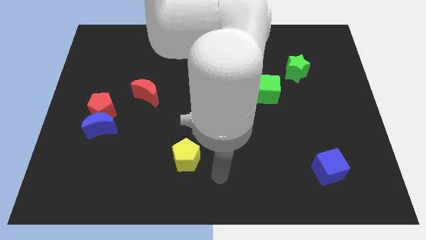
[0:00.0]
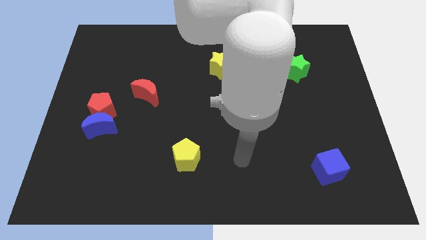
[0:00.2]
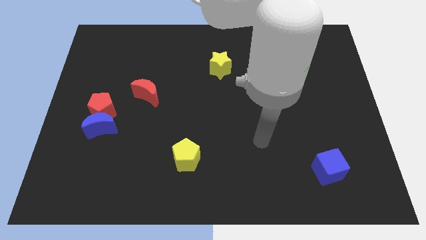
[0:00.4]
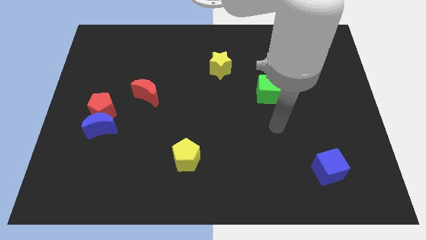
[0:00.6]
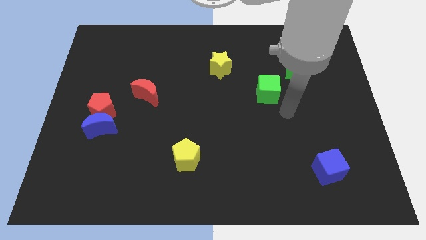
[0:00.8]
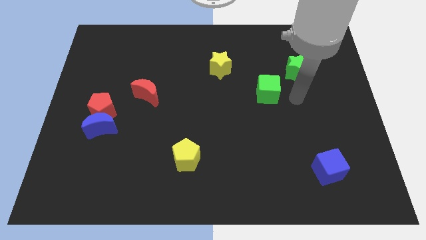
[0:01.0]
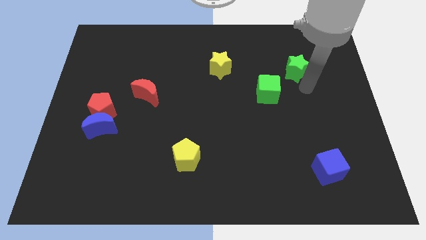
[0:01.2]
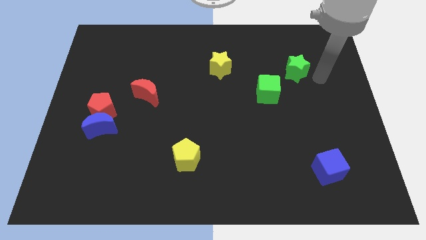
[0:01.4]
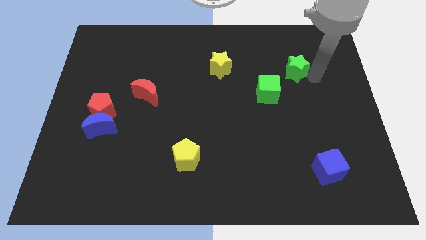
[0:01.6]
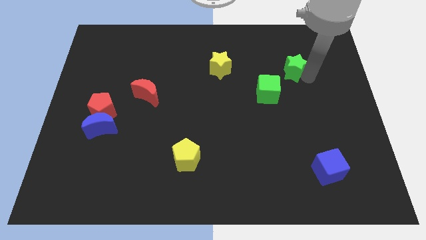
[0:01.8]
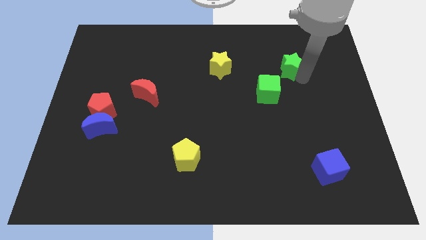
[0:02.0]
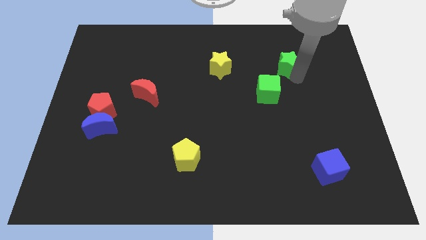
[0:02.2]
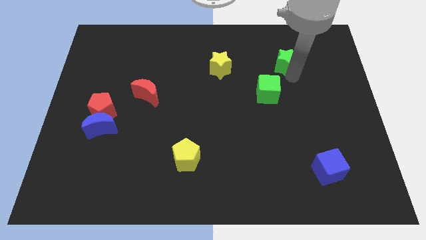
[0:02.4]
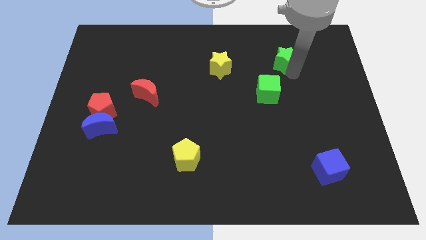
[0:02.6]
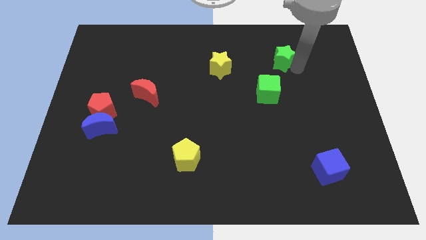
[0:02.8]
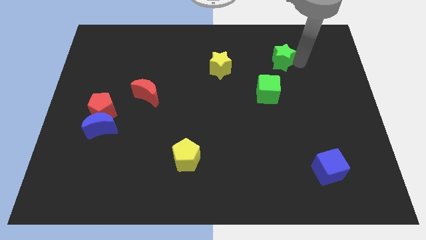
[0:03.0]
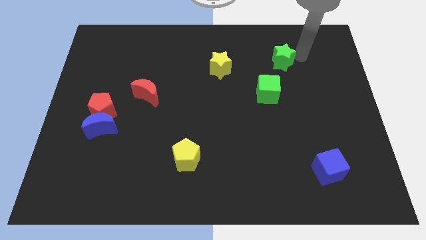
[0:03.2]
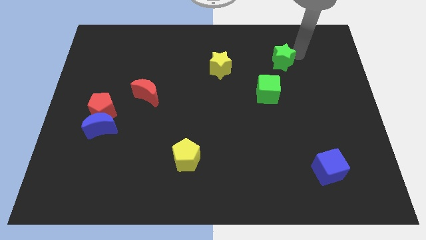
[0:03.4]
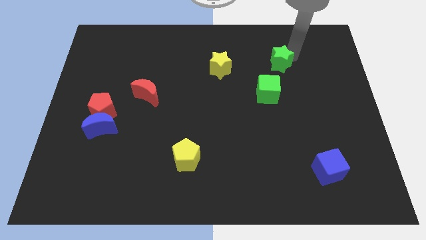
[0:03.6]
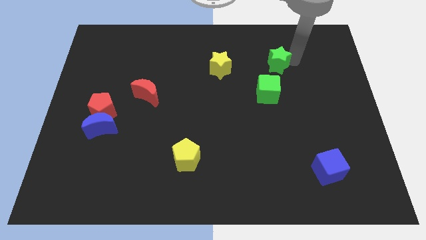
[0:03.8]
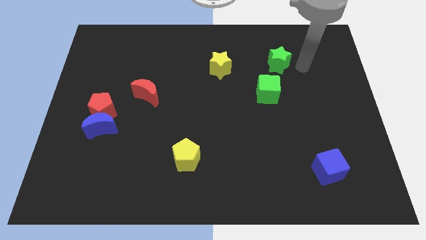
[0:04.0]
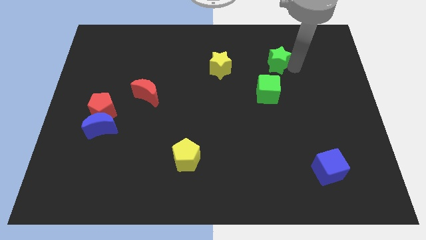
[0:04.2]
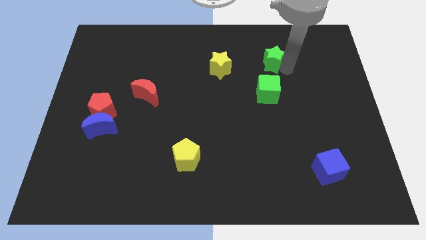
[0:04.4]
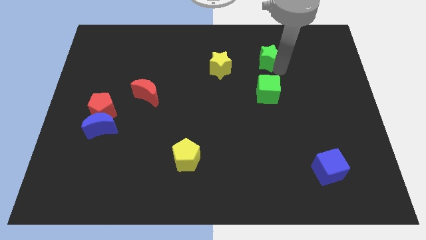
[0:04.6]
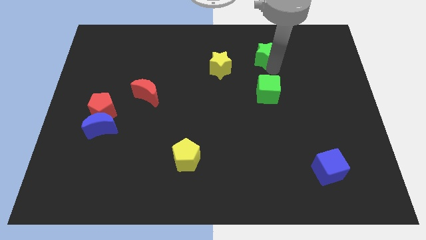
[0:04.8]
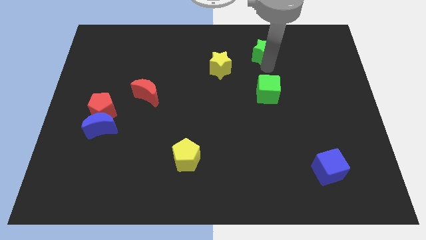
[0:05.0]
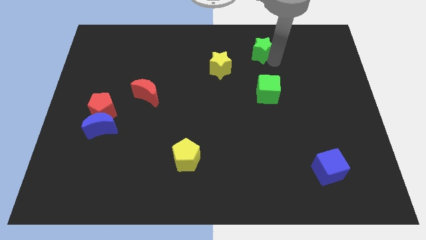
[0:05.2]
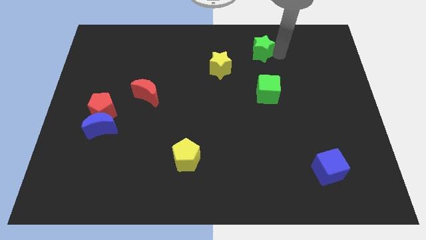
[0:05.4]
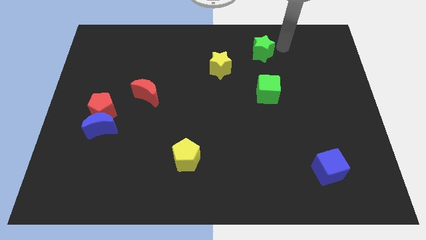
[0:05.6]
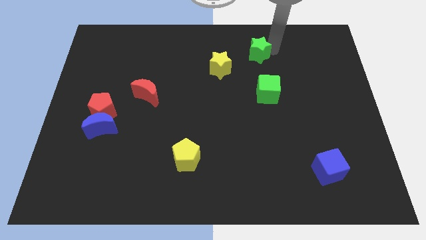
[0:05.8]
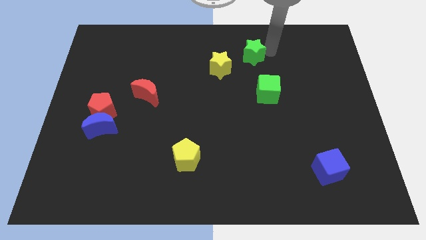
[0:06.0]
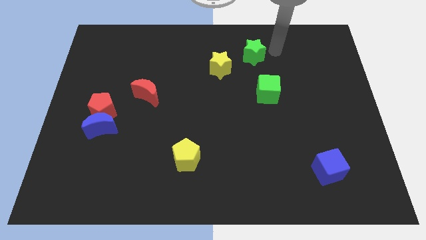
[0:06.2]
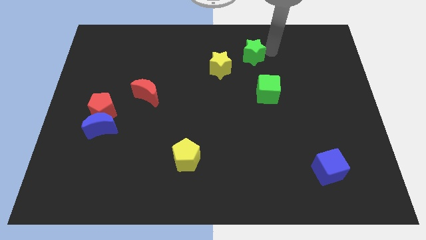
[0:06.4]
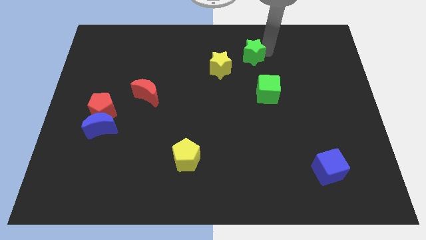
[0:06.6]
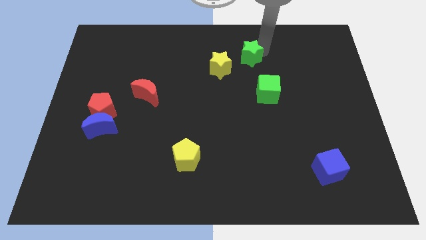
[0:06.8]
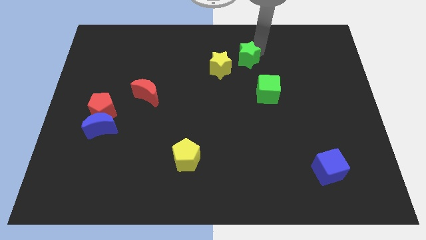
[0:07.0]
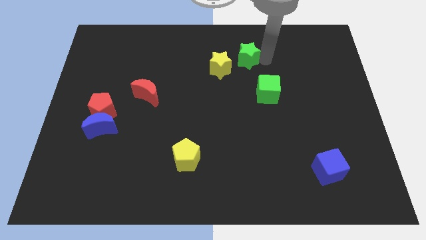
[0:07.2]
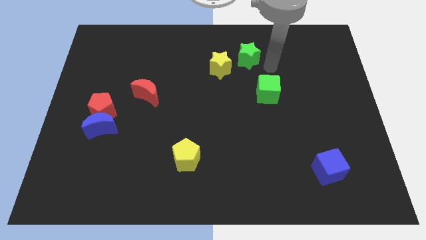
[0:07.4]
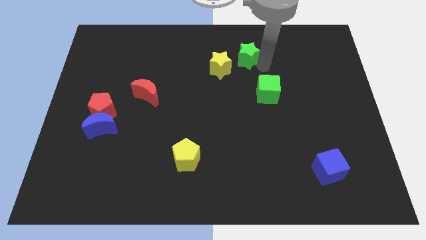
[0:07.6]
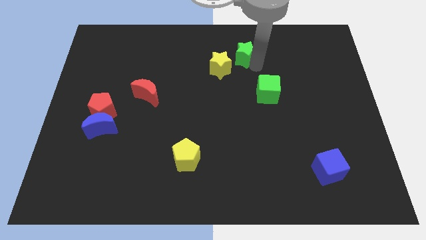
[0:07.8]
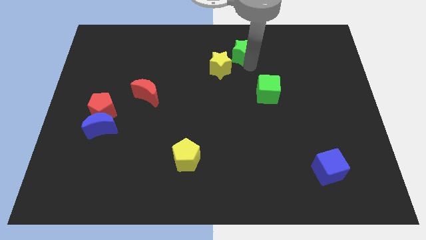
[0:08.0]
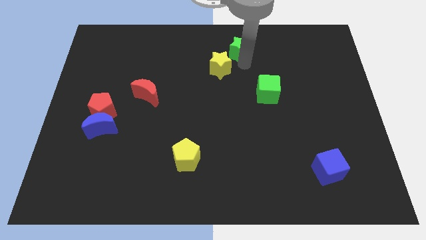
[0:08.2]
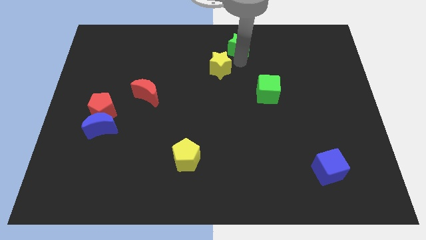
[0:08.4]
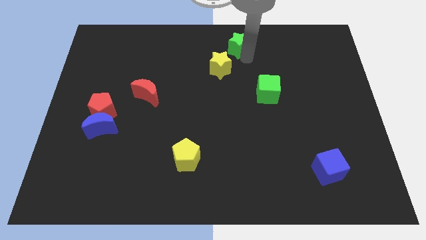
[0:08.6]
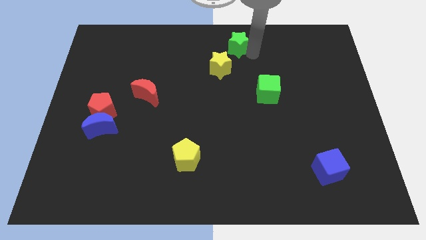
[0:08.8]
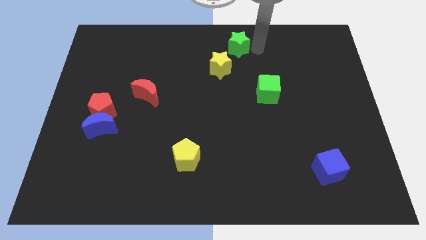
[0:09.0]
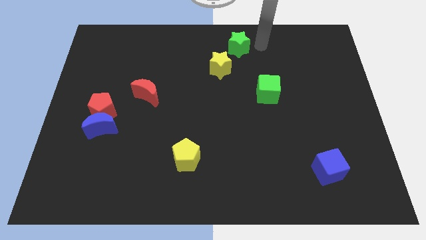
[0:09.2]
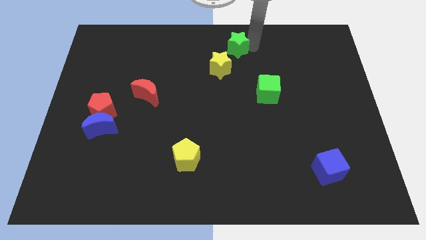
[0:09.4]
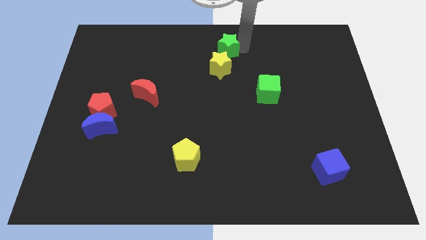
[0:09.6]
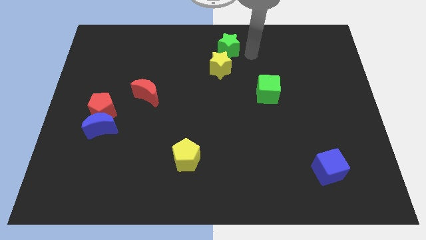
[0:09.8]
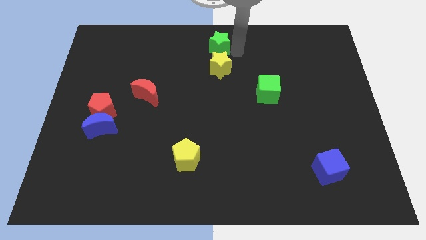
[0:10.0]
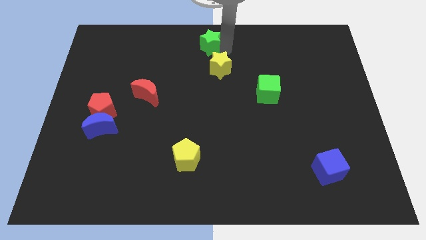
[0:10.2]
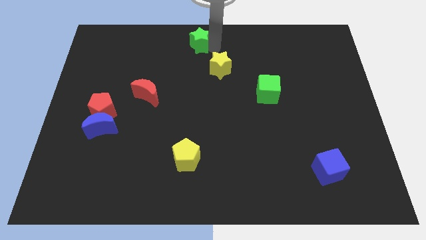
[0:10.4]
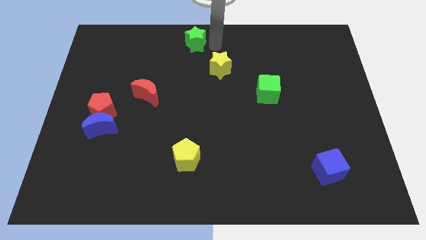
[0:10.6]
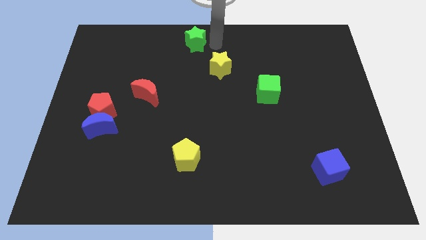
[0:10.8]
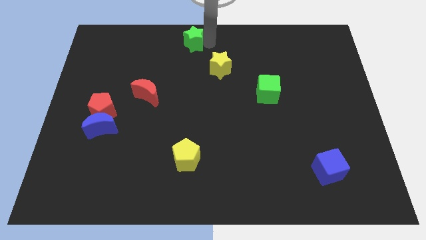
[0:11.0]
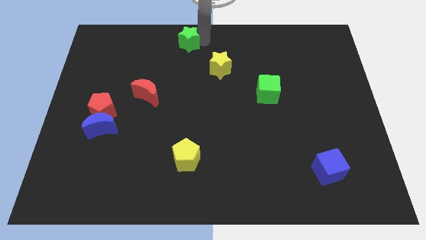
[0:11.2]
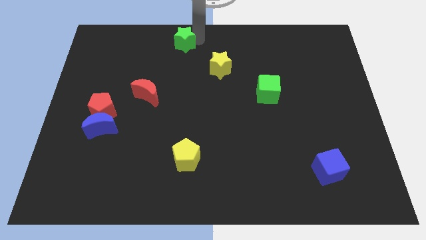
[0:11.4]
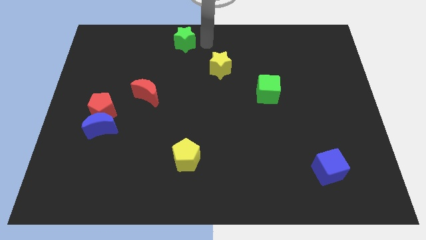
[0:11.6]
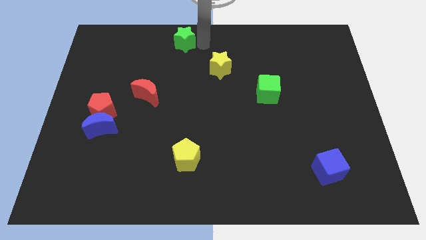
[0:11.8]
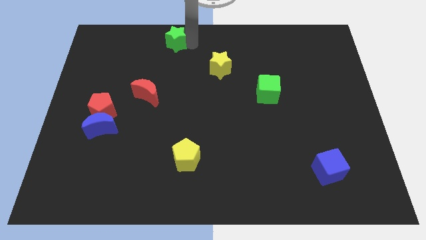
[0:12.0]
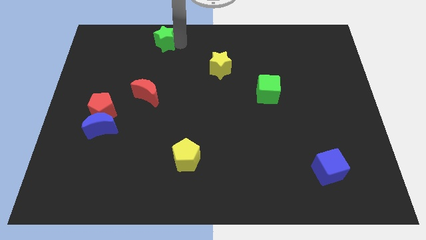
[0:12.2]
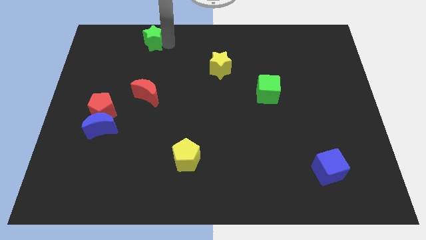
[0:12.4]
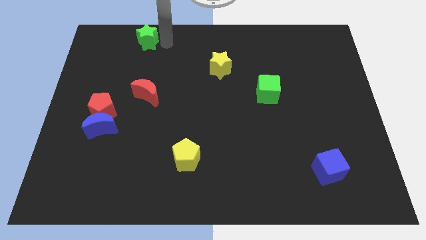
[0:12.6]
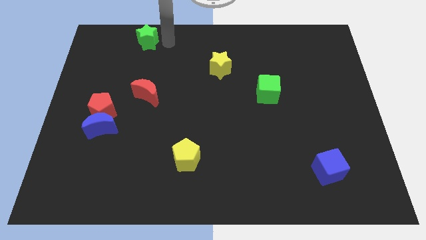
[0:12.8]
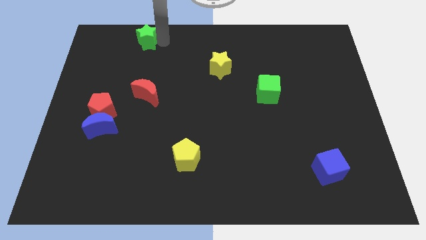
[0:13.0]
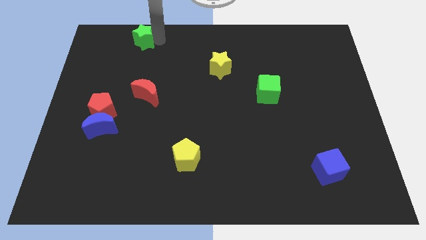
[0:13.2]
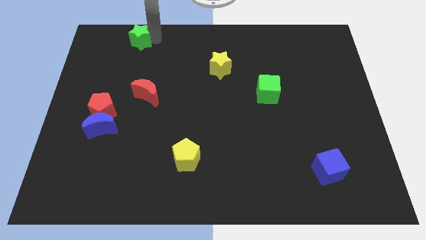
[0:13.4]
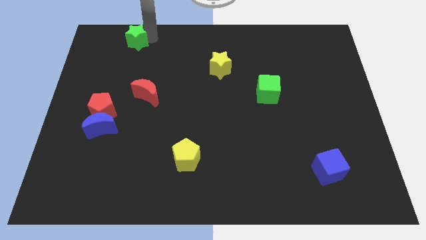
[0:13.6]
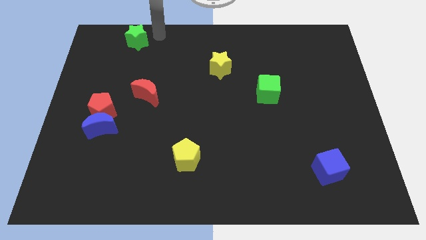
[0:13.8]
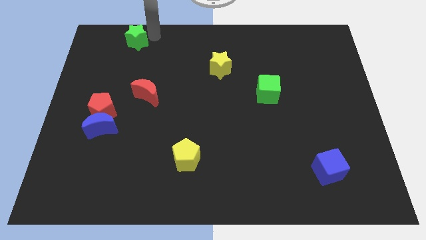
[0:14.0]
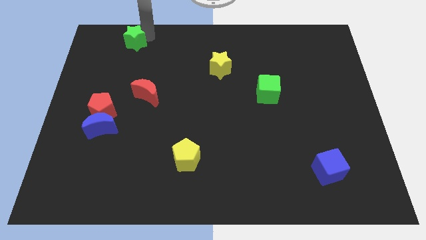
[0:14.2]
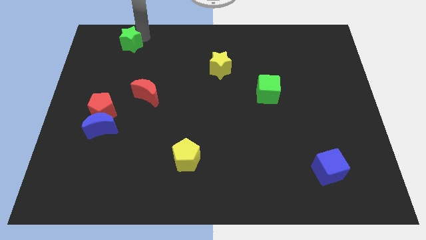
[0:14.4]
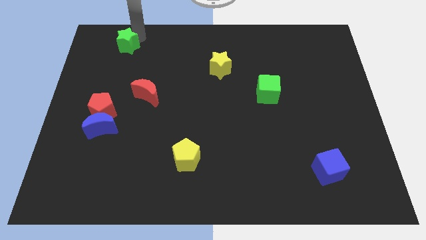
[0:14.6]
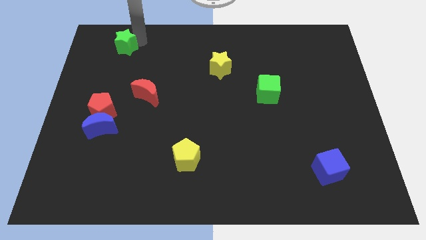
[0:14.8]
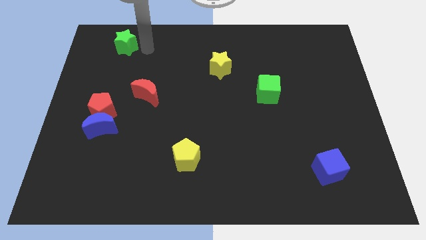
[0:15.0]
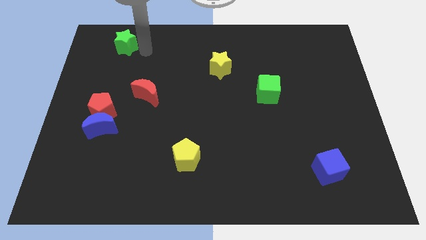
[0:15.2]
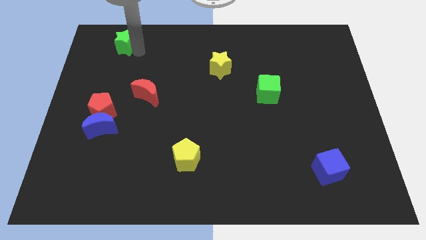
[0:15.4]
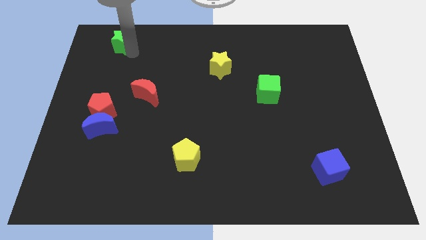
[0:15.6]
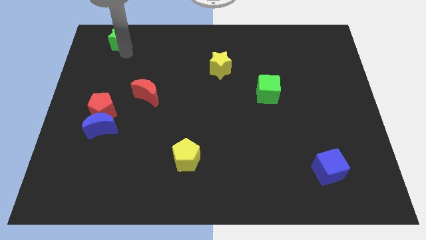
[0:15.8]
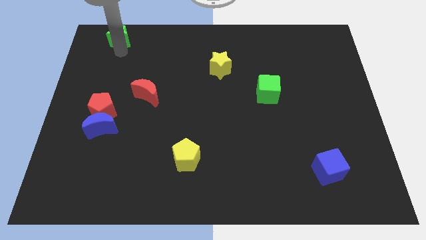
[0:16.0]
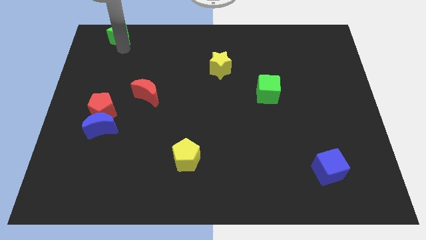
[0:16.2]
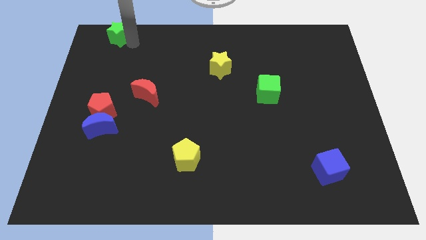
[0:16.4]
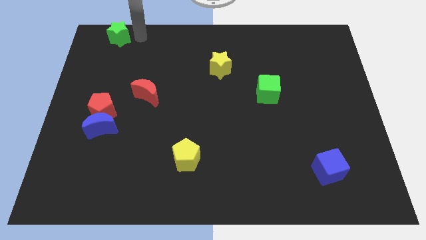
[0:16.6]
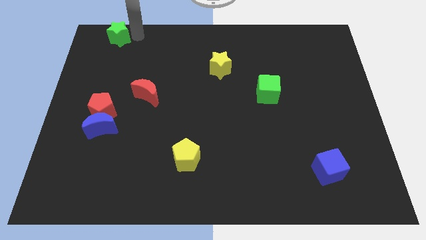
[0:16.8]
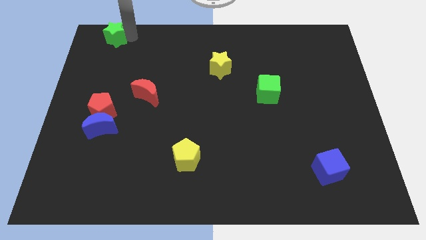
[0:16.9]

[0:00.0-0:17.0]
move the green star to the upper left corner
